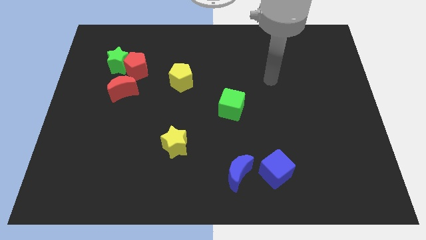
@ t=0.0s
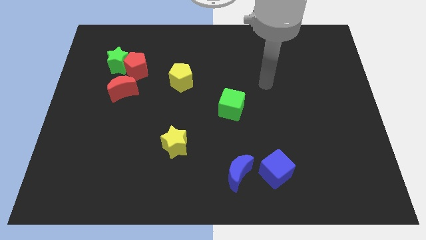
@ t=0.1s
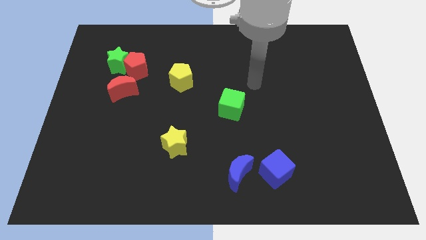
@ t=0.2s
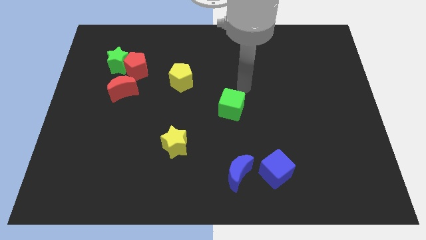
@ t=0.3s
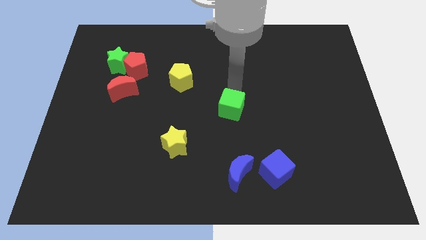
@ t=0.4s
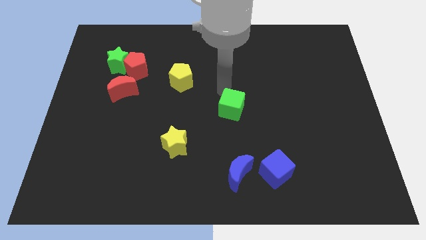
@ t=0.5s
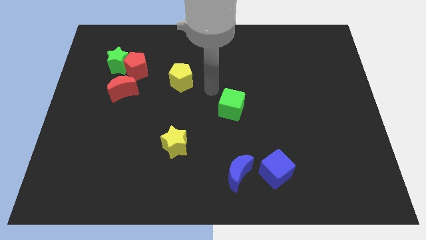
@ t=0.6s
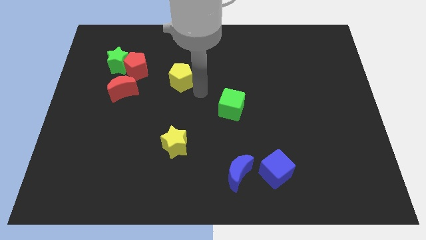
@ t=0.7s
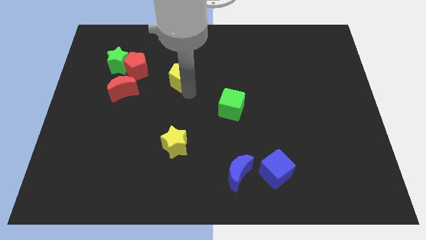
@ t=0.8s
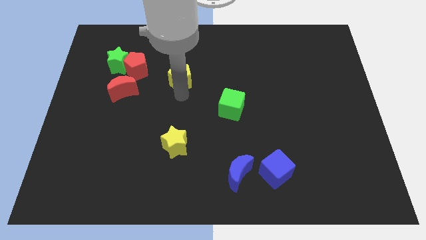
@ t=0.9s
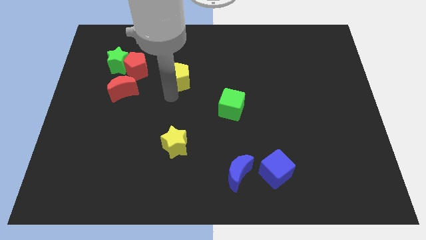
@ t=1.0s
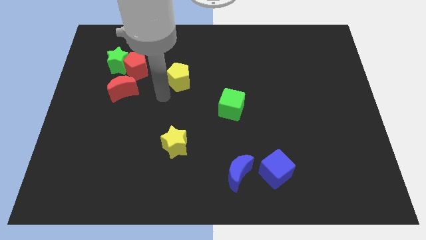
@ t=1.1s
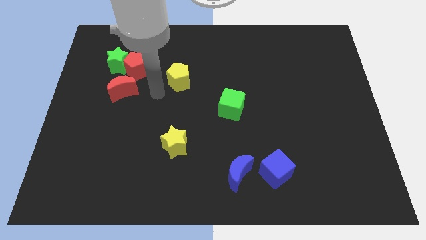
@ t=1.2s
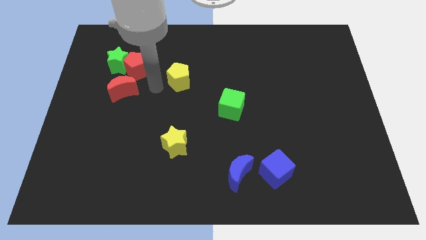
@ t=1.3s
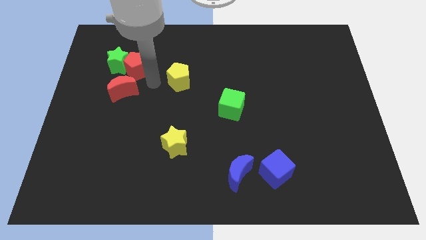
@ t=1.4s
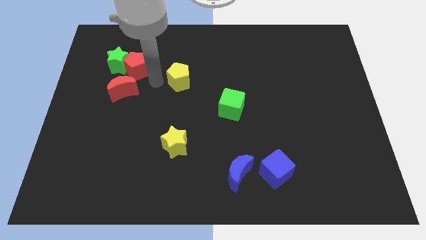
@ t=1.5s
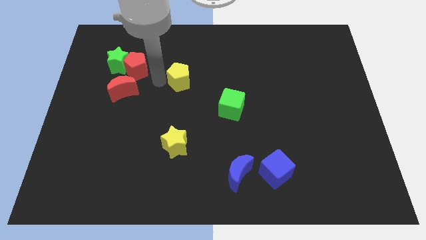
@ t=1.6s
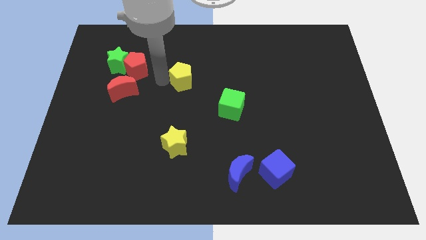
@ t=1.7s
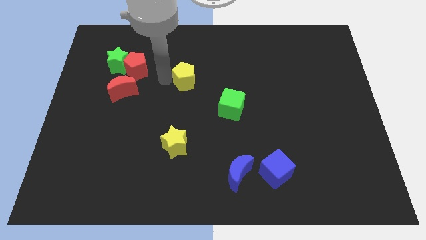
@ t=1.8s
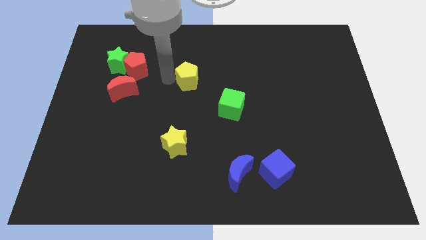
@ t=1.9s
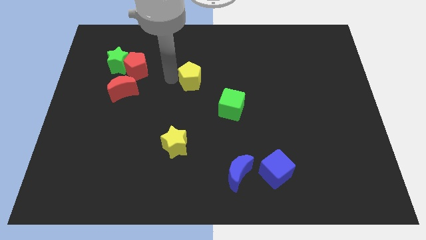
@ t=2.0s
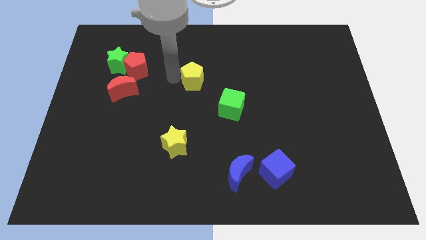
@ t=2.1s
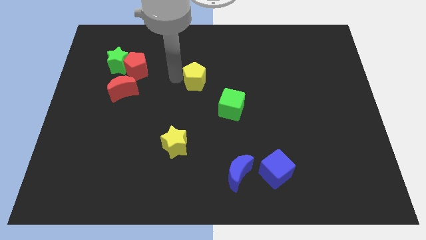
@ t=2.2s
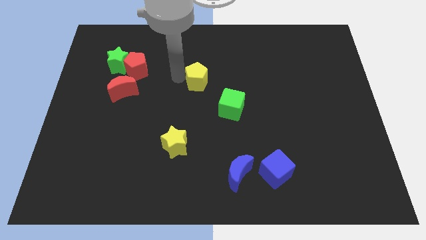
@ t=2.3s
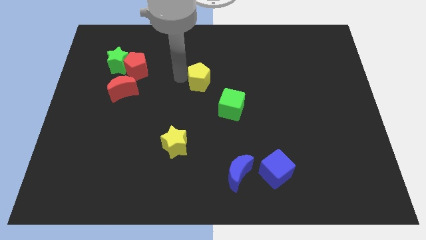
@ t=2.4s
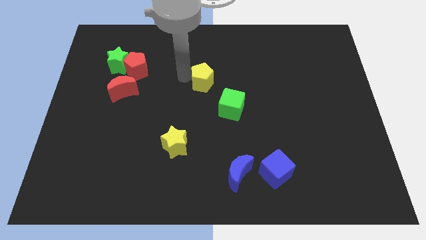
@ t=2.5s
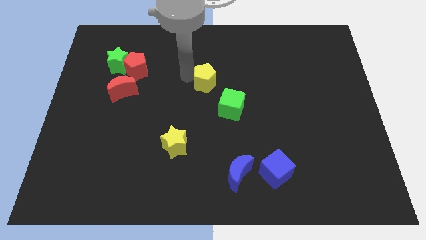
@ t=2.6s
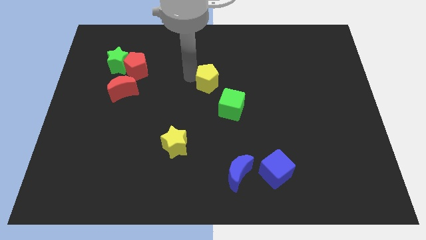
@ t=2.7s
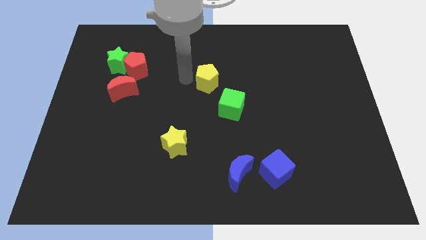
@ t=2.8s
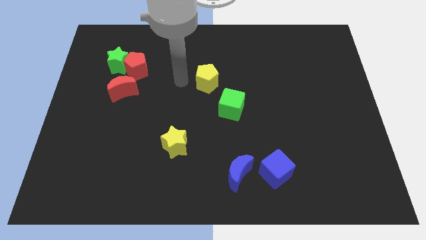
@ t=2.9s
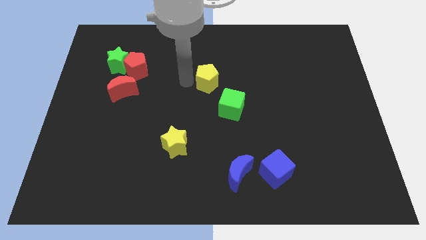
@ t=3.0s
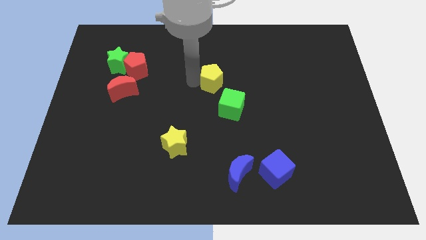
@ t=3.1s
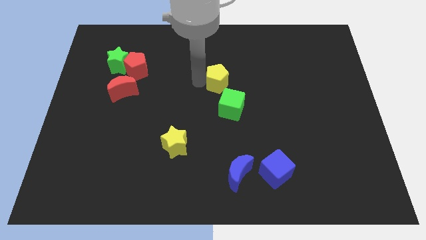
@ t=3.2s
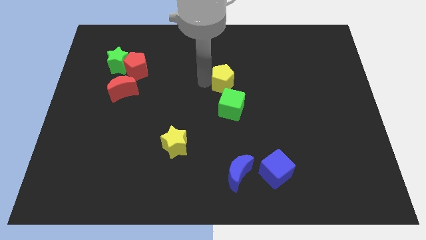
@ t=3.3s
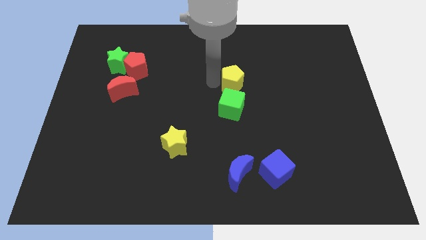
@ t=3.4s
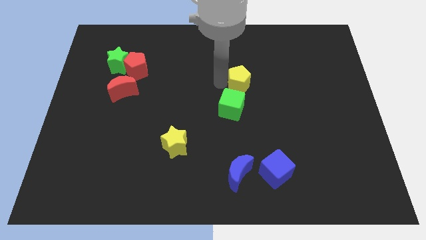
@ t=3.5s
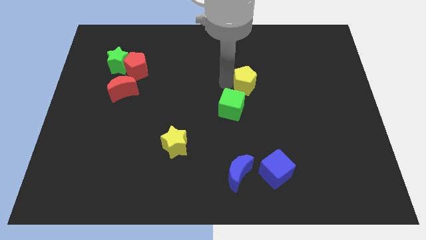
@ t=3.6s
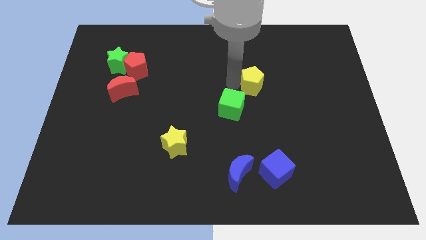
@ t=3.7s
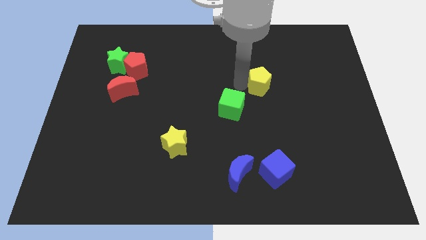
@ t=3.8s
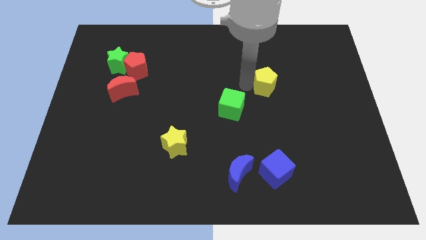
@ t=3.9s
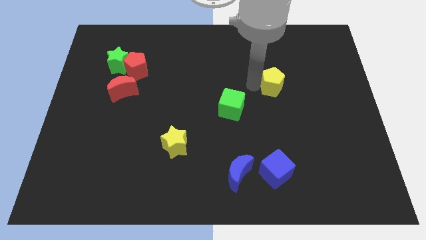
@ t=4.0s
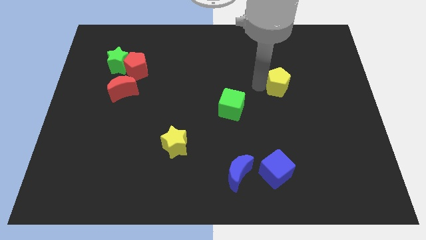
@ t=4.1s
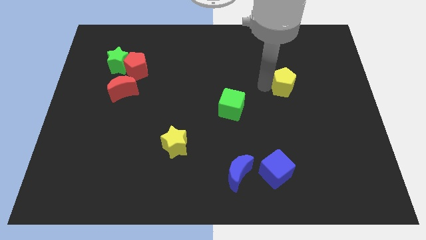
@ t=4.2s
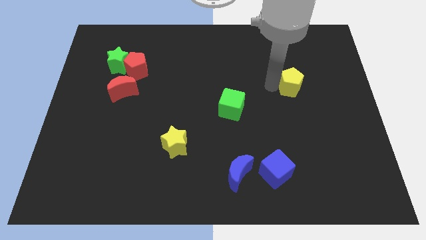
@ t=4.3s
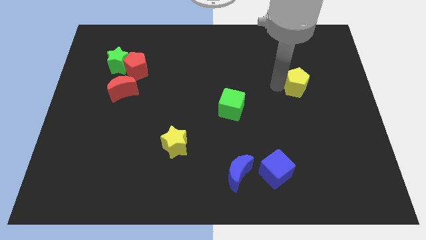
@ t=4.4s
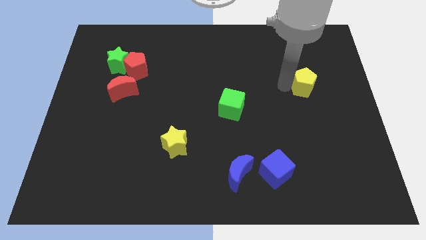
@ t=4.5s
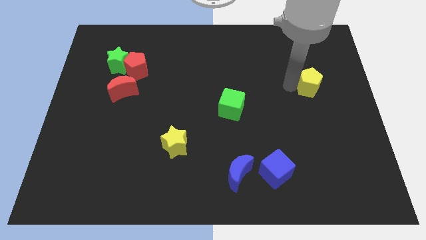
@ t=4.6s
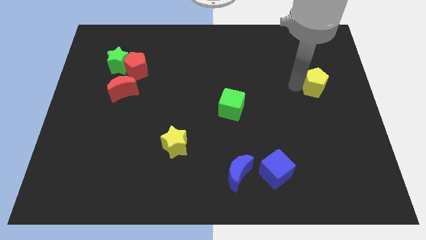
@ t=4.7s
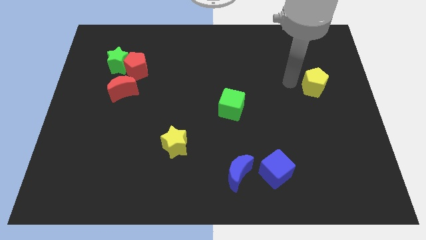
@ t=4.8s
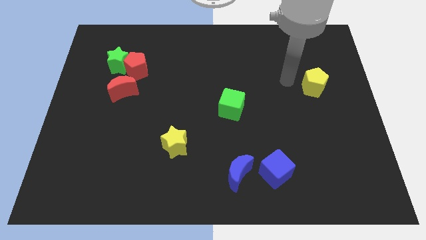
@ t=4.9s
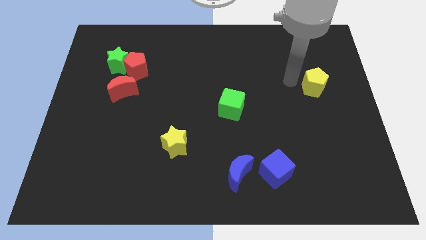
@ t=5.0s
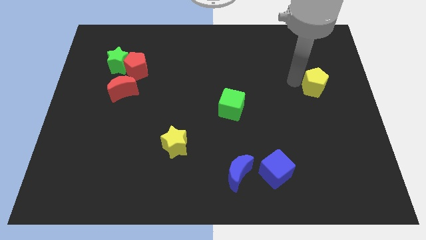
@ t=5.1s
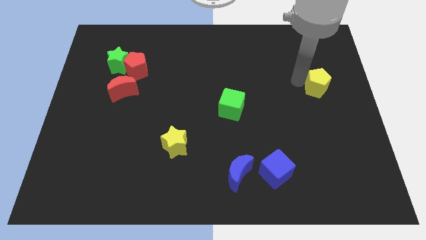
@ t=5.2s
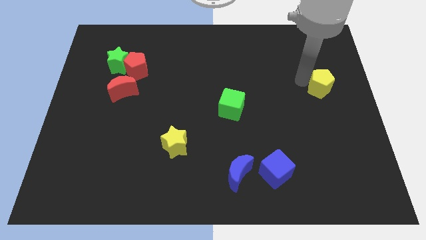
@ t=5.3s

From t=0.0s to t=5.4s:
slide the yellow pentagon to the right side of the board

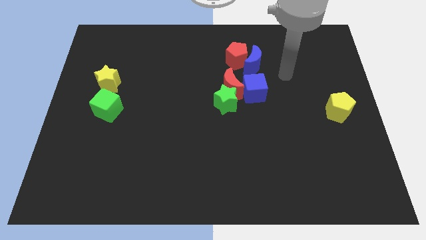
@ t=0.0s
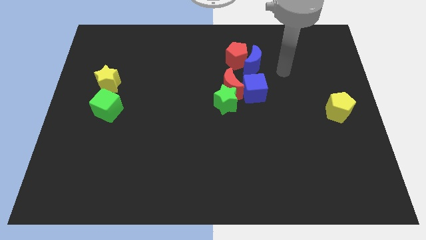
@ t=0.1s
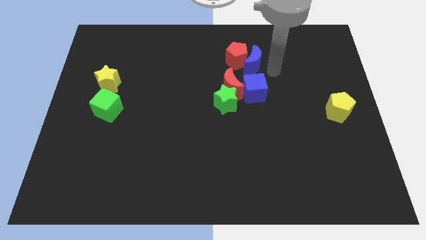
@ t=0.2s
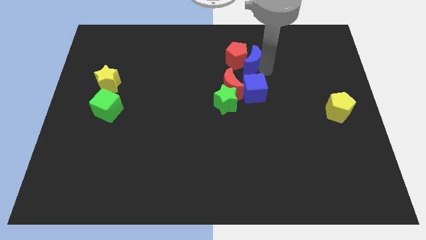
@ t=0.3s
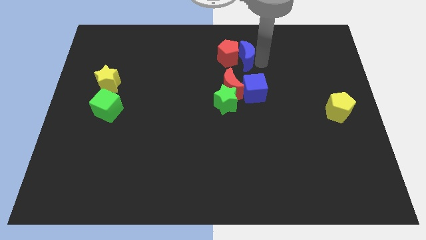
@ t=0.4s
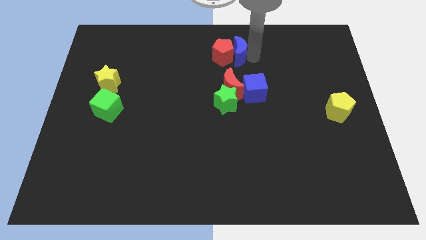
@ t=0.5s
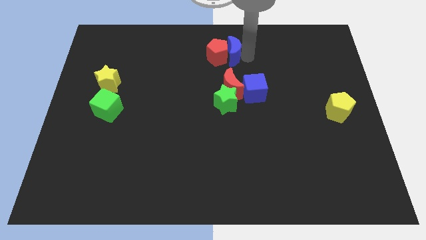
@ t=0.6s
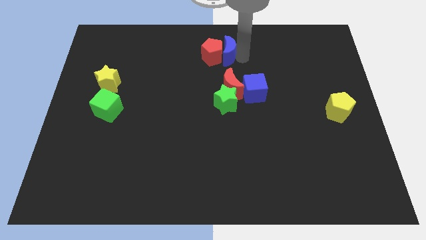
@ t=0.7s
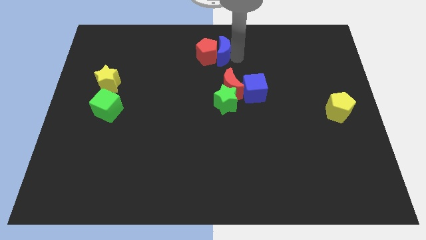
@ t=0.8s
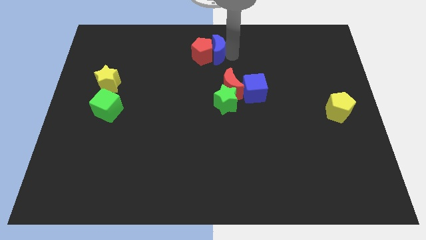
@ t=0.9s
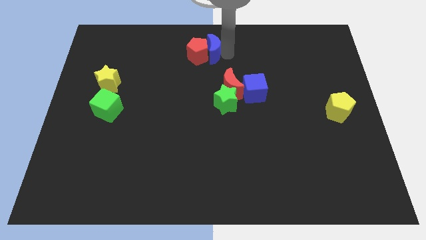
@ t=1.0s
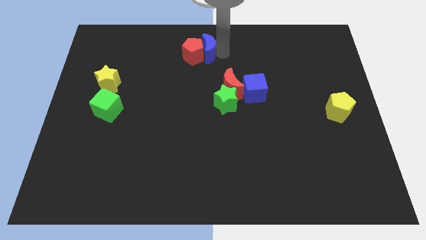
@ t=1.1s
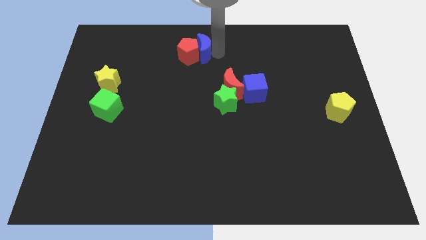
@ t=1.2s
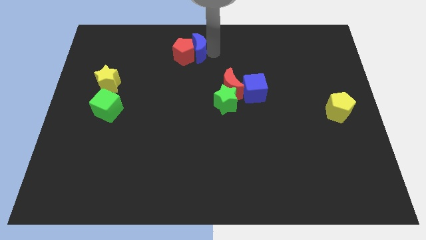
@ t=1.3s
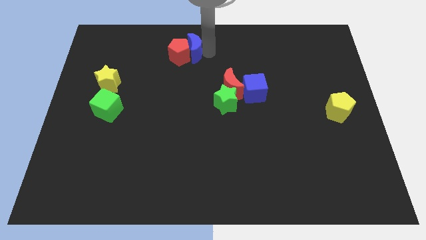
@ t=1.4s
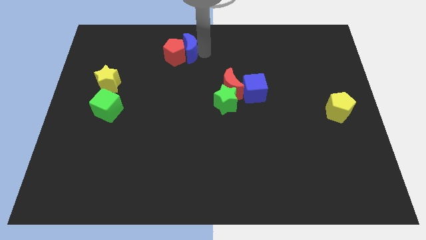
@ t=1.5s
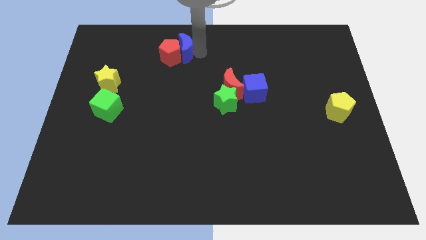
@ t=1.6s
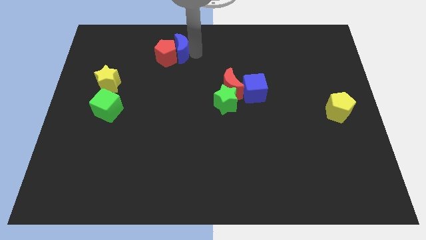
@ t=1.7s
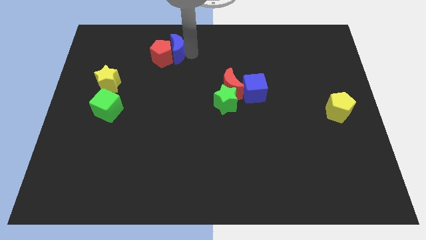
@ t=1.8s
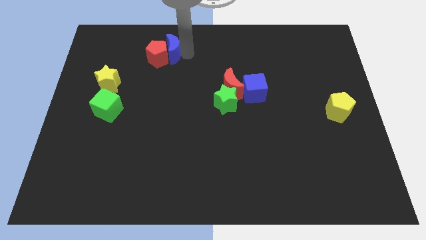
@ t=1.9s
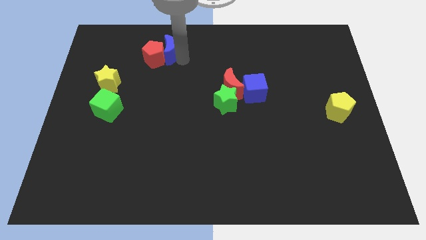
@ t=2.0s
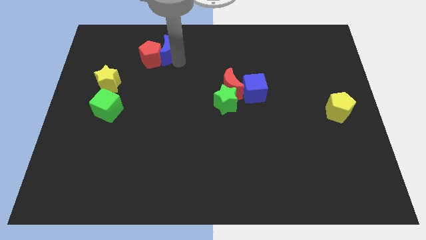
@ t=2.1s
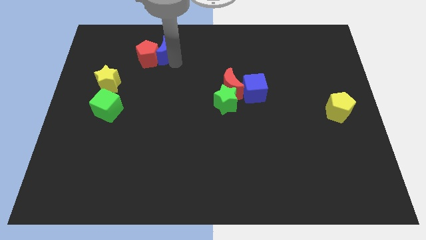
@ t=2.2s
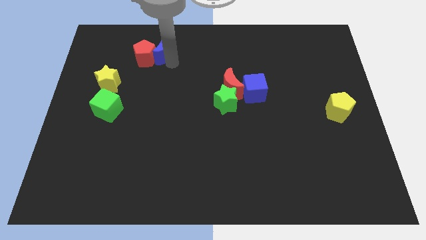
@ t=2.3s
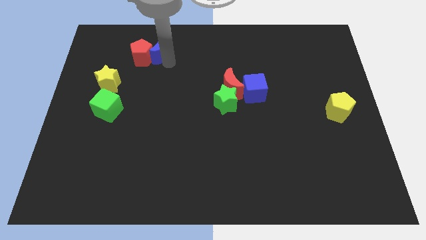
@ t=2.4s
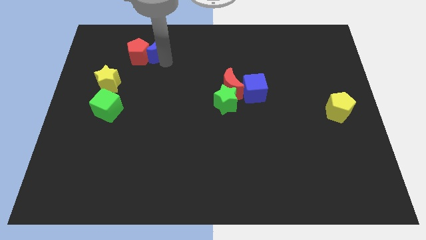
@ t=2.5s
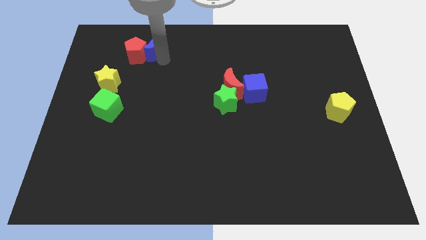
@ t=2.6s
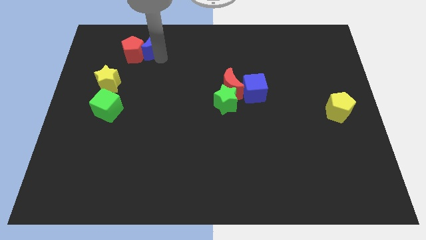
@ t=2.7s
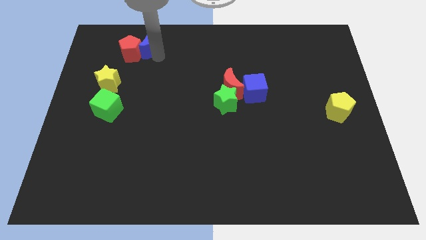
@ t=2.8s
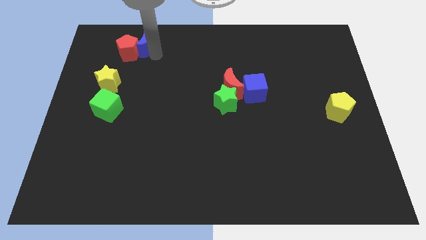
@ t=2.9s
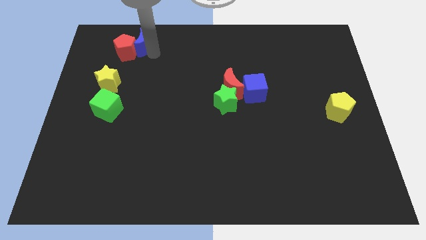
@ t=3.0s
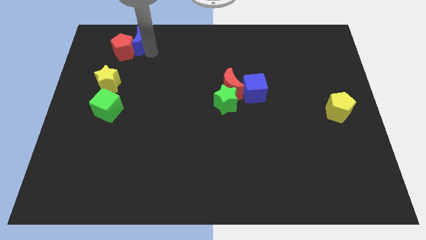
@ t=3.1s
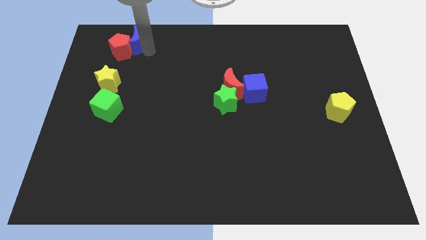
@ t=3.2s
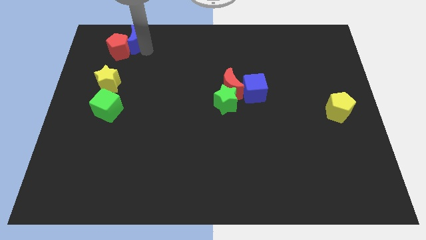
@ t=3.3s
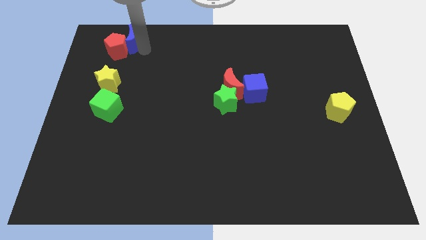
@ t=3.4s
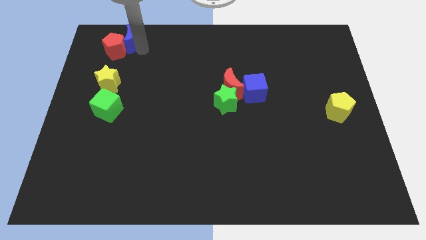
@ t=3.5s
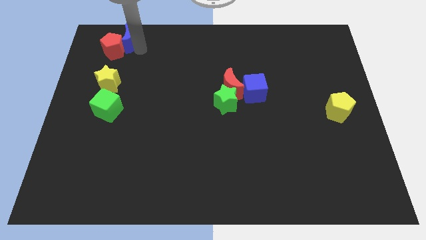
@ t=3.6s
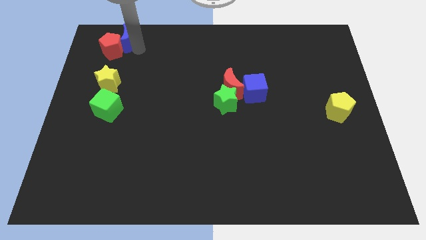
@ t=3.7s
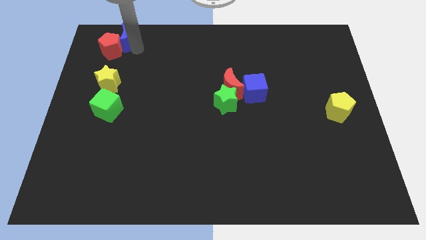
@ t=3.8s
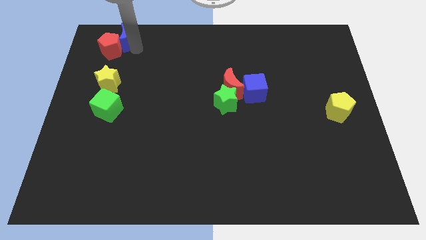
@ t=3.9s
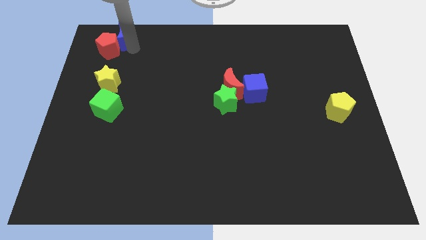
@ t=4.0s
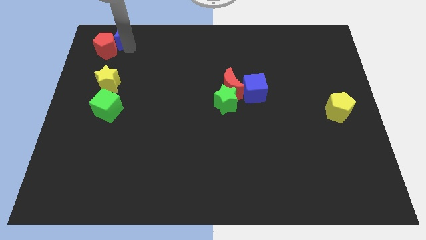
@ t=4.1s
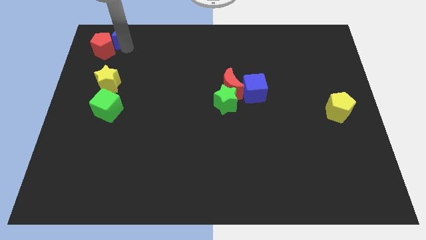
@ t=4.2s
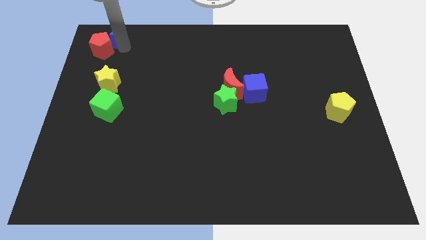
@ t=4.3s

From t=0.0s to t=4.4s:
slide the red pentagon to the top left
